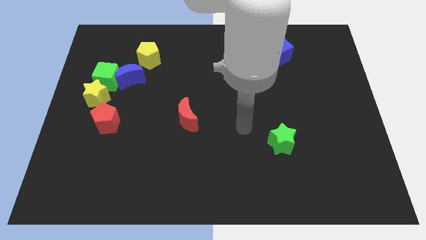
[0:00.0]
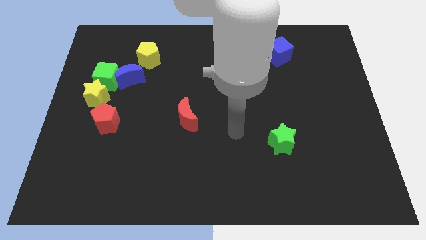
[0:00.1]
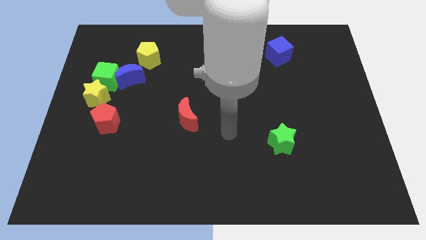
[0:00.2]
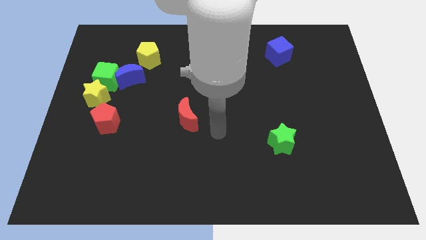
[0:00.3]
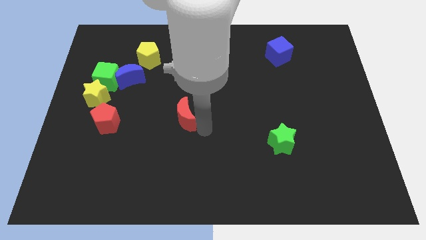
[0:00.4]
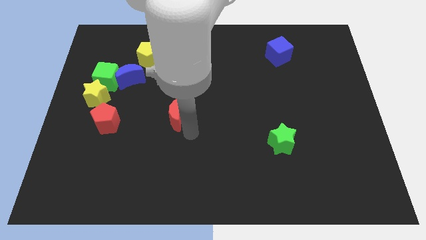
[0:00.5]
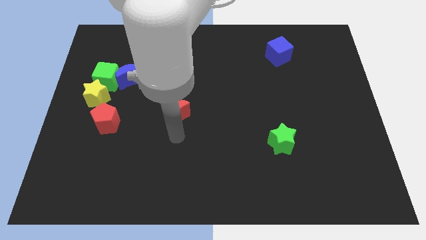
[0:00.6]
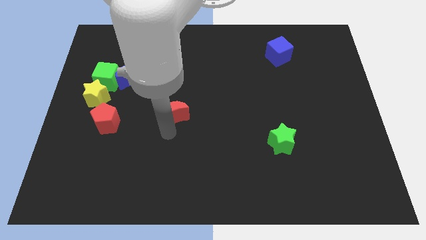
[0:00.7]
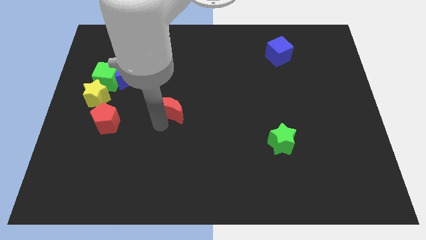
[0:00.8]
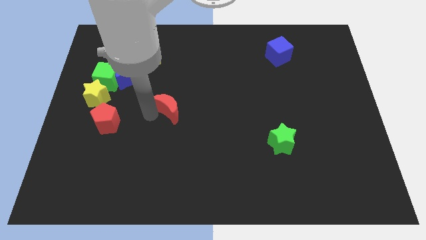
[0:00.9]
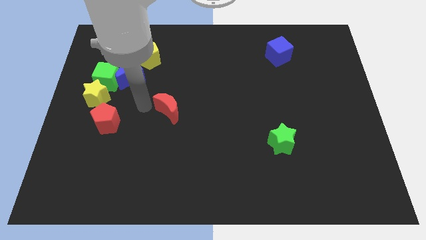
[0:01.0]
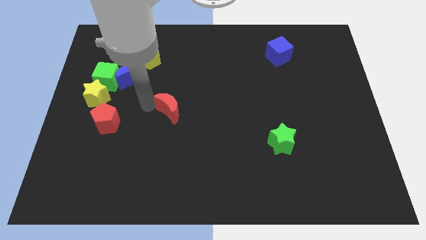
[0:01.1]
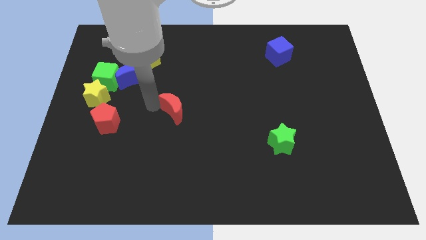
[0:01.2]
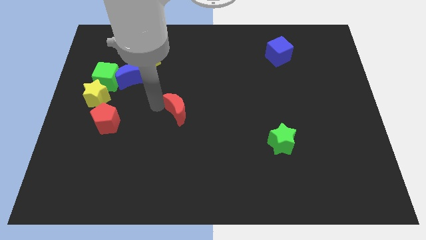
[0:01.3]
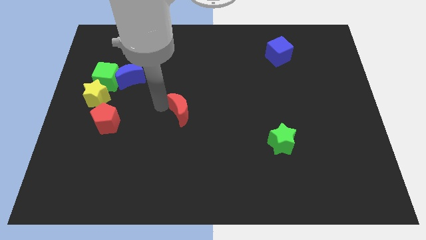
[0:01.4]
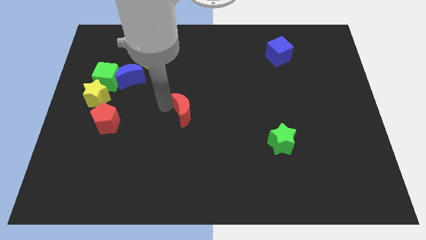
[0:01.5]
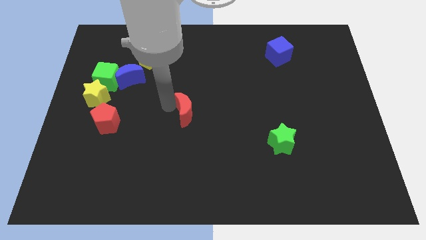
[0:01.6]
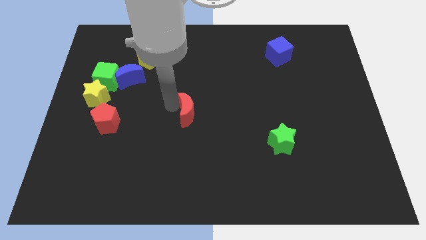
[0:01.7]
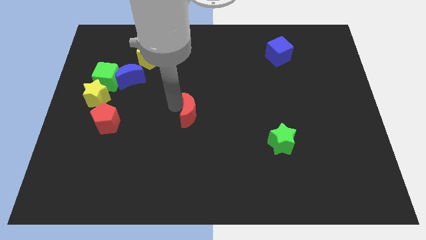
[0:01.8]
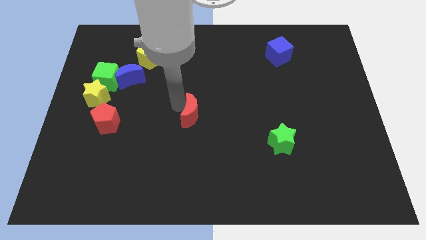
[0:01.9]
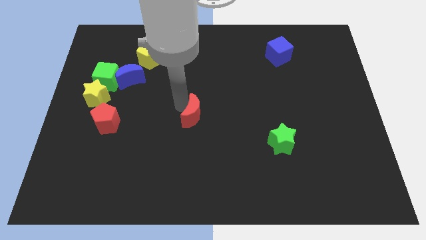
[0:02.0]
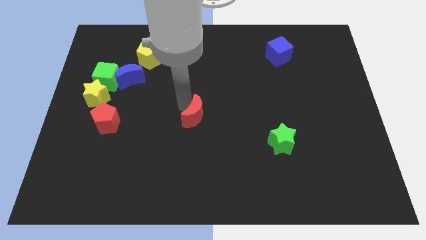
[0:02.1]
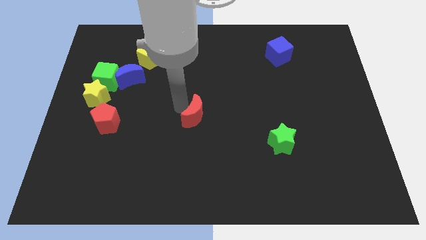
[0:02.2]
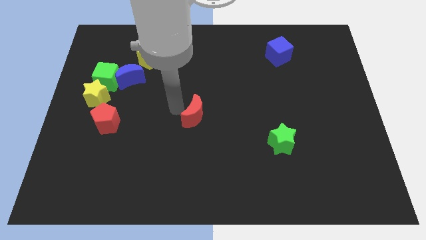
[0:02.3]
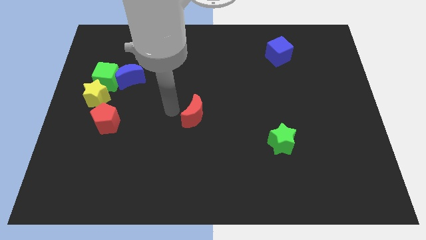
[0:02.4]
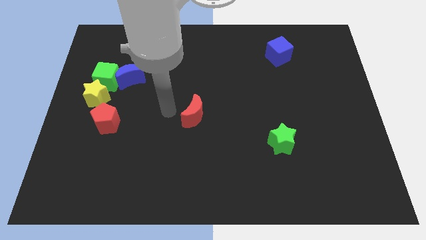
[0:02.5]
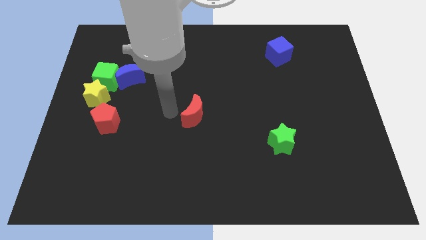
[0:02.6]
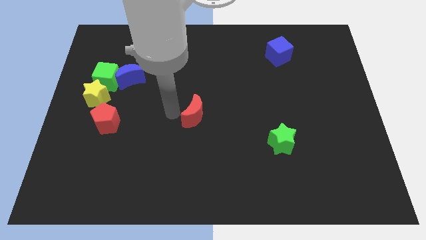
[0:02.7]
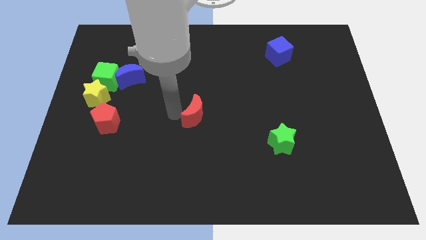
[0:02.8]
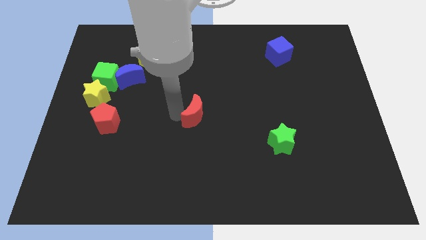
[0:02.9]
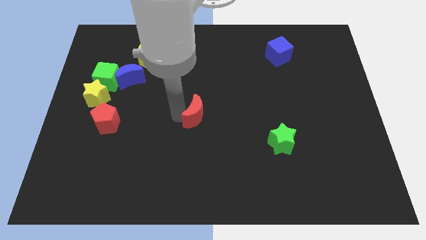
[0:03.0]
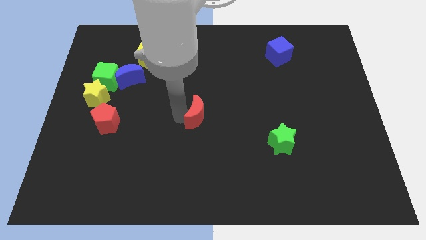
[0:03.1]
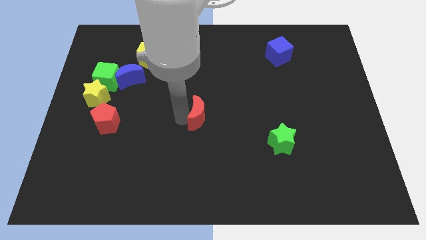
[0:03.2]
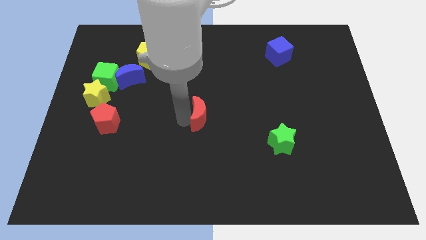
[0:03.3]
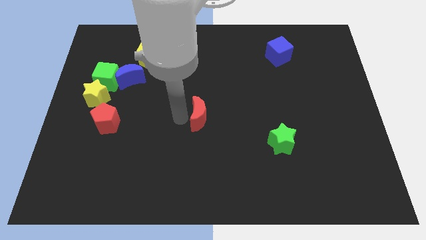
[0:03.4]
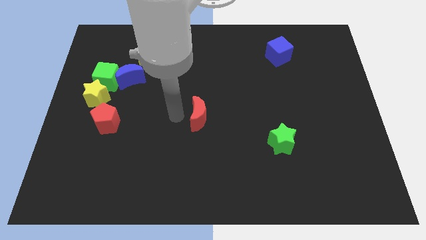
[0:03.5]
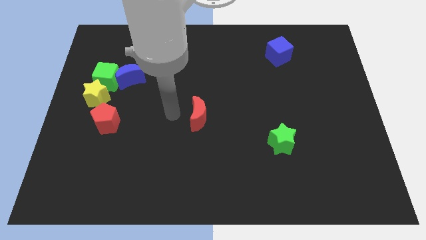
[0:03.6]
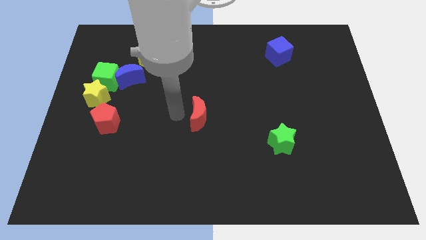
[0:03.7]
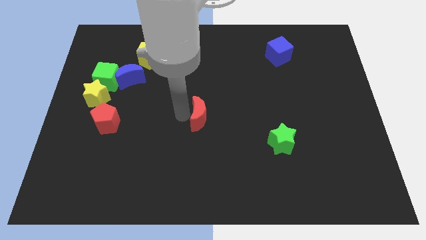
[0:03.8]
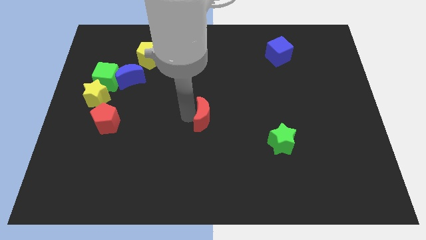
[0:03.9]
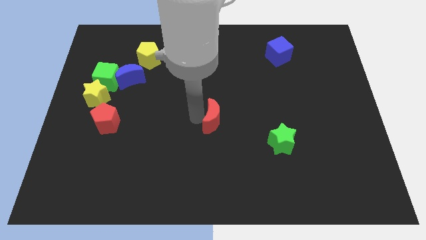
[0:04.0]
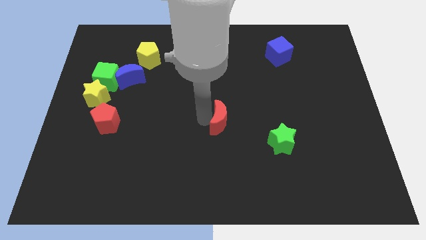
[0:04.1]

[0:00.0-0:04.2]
move the red moon to the right somewhat
